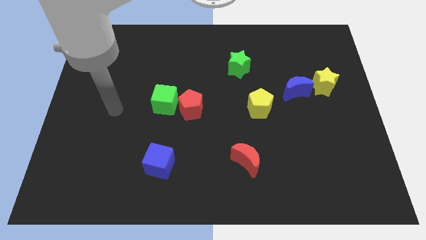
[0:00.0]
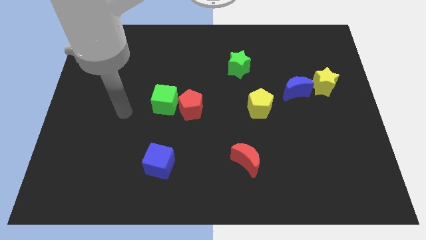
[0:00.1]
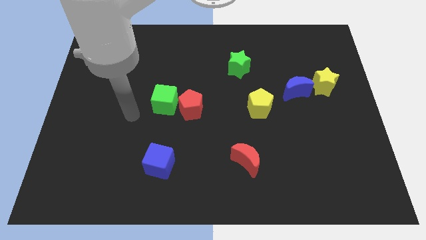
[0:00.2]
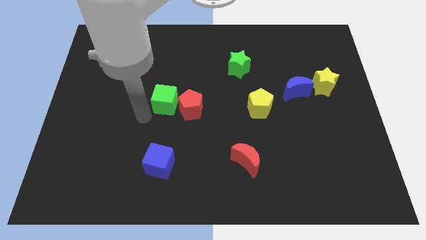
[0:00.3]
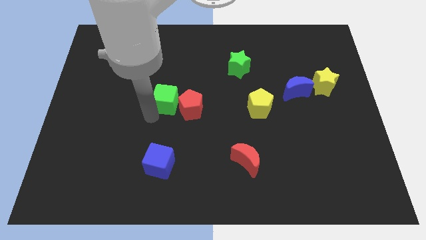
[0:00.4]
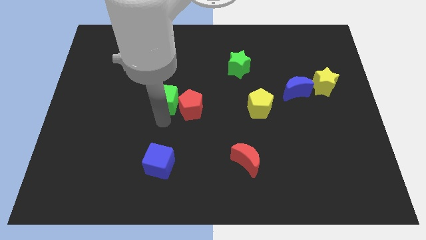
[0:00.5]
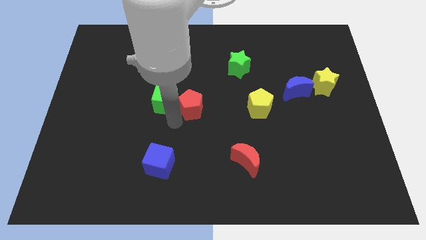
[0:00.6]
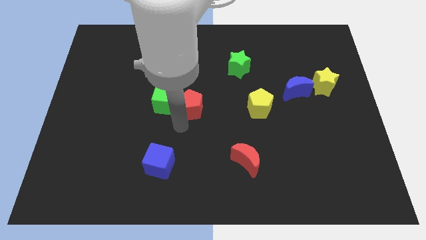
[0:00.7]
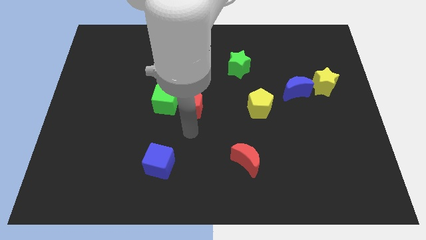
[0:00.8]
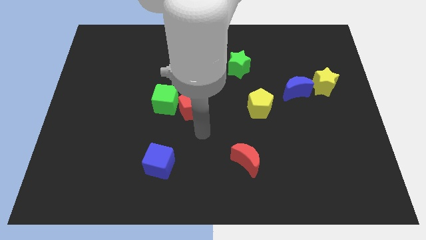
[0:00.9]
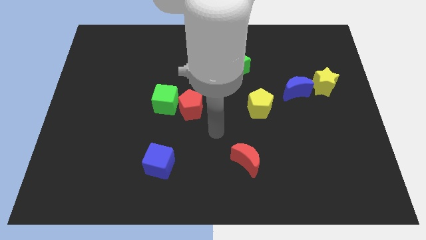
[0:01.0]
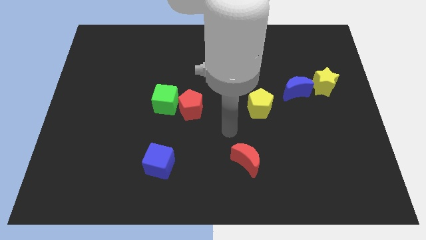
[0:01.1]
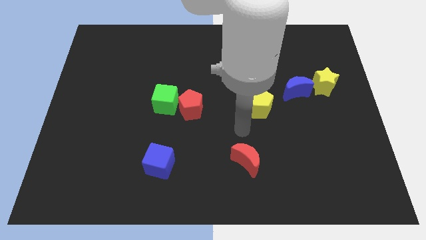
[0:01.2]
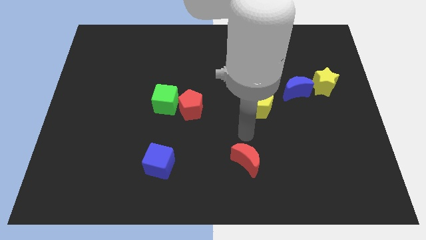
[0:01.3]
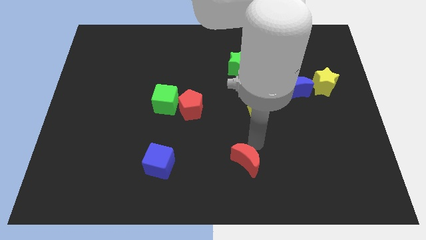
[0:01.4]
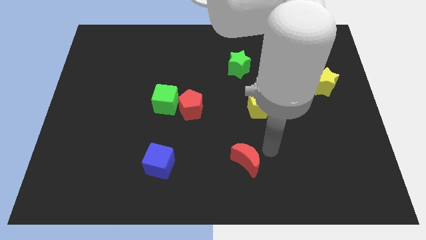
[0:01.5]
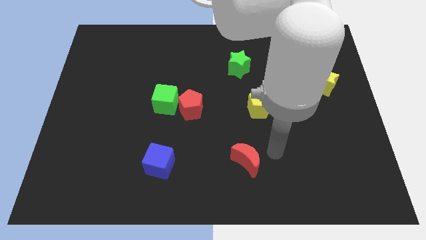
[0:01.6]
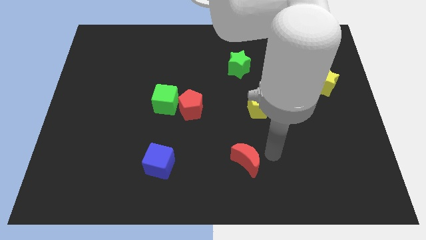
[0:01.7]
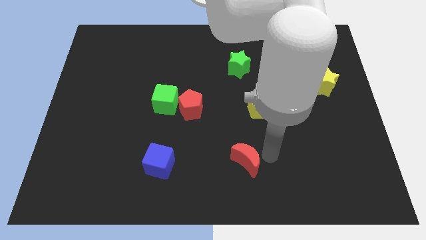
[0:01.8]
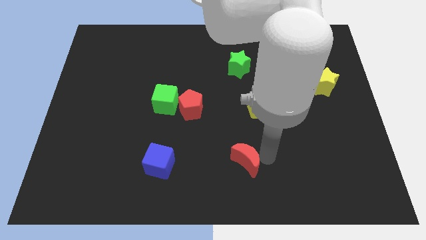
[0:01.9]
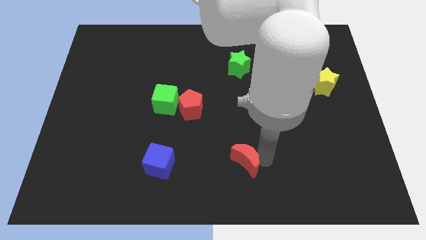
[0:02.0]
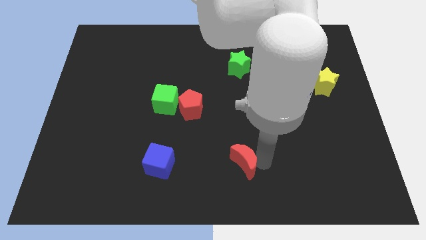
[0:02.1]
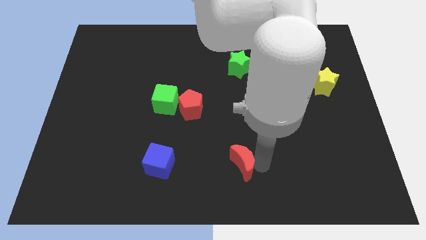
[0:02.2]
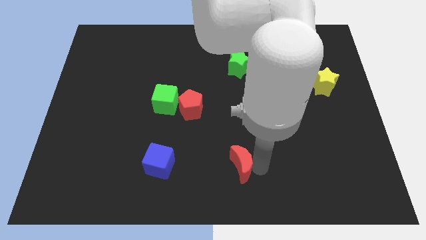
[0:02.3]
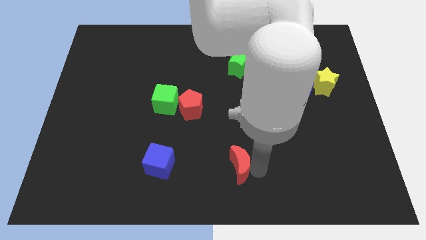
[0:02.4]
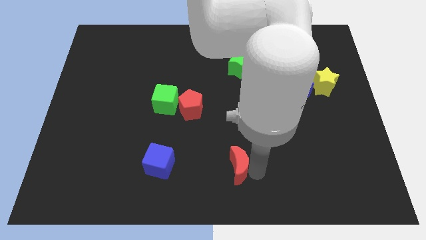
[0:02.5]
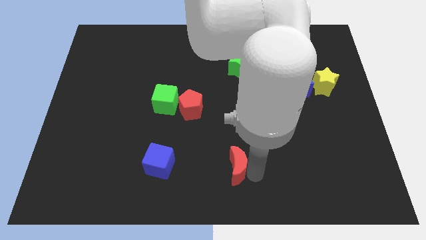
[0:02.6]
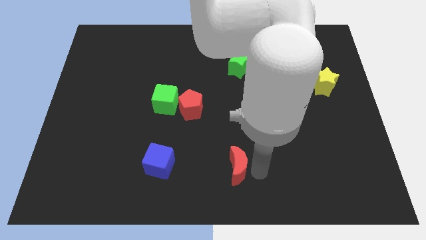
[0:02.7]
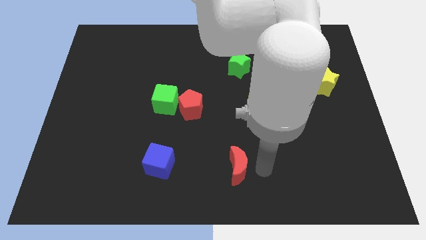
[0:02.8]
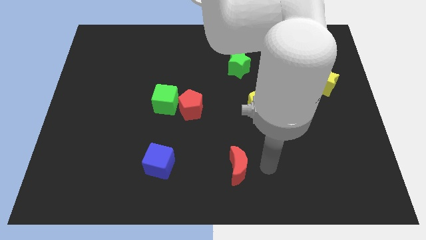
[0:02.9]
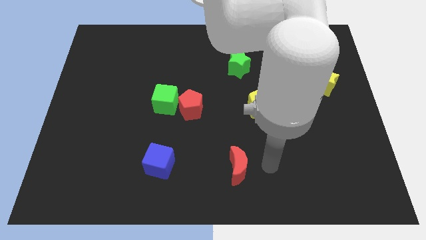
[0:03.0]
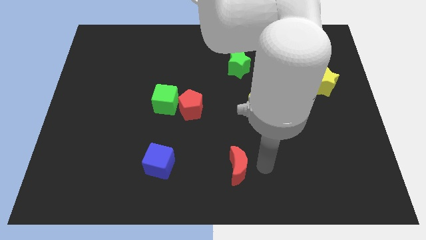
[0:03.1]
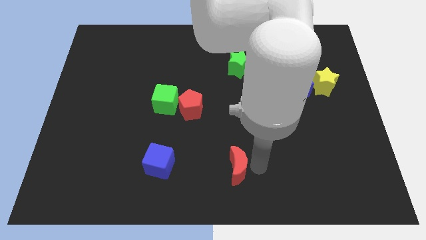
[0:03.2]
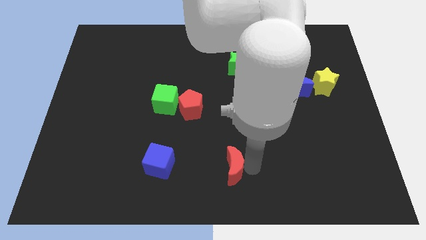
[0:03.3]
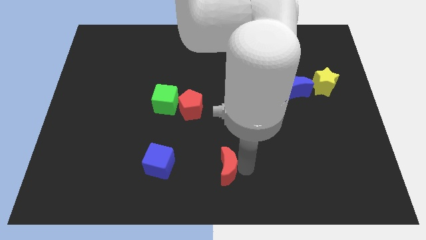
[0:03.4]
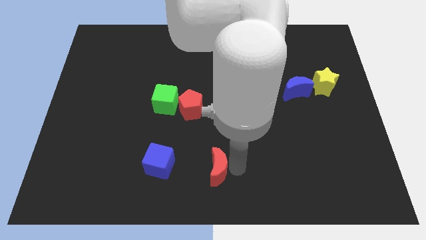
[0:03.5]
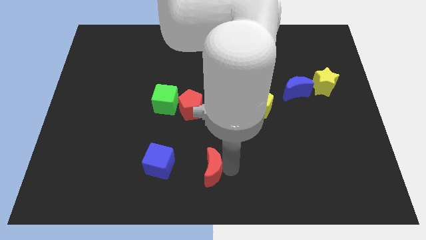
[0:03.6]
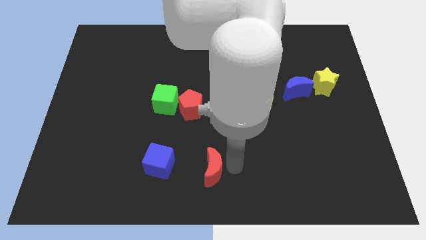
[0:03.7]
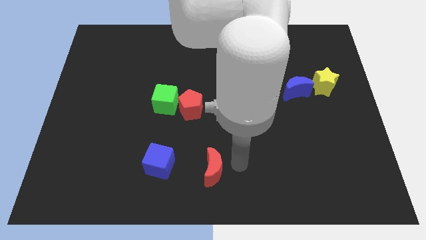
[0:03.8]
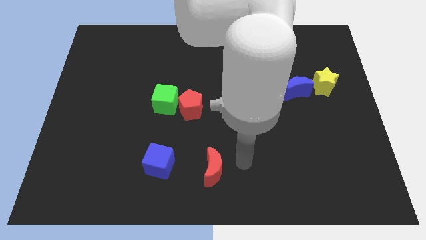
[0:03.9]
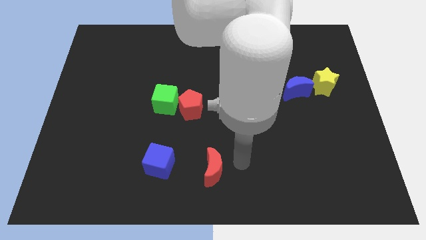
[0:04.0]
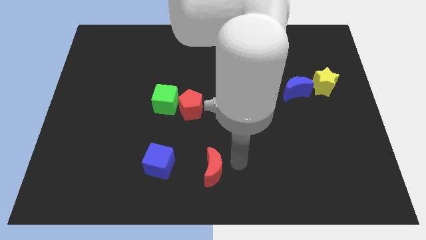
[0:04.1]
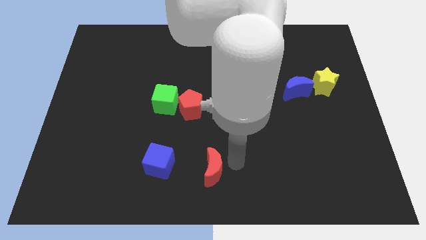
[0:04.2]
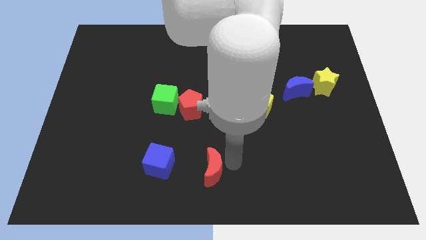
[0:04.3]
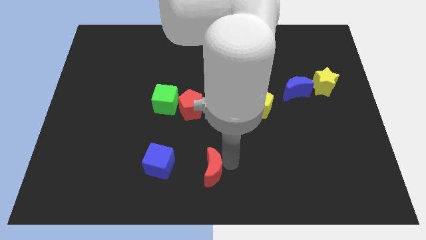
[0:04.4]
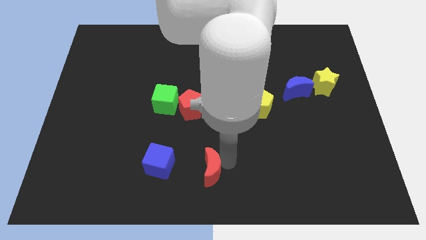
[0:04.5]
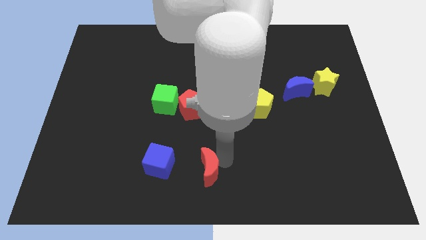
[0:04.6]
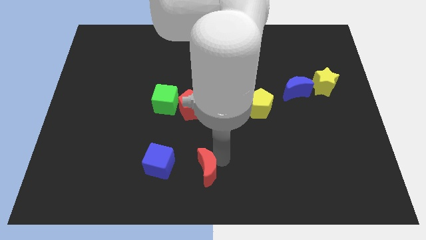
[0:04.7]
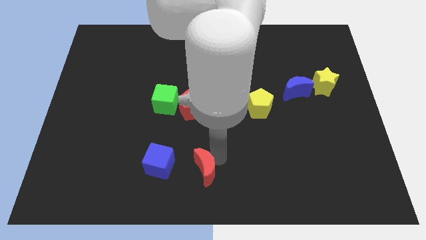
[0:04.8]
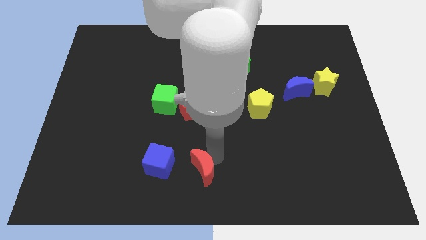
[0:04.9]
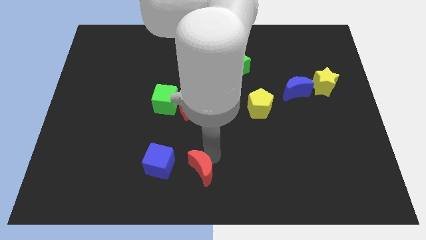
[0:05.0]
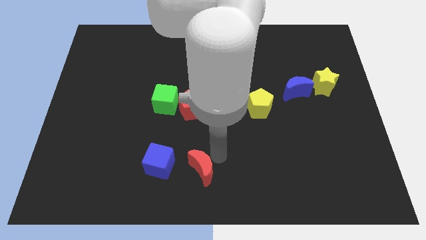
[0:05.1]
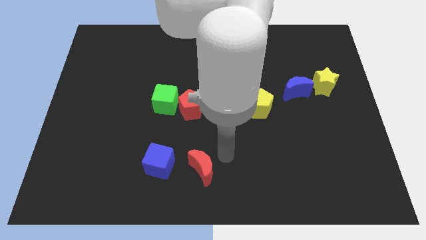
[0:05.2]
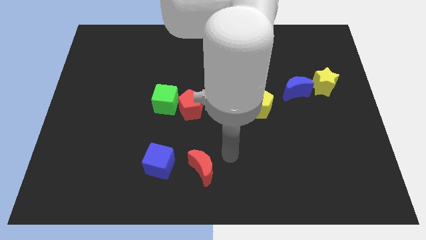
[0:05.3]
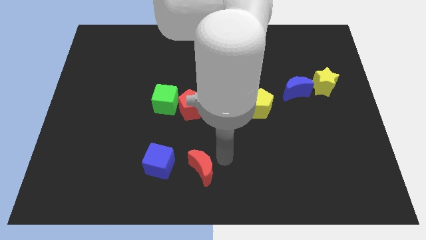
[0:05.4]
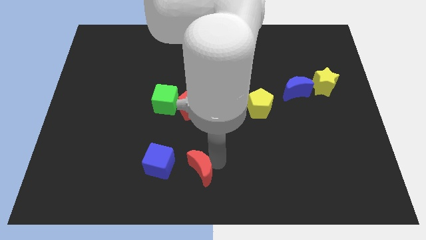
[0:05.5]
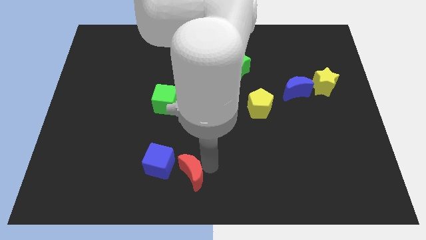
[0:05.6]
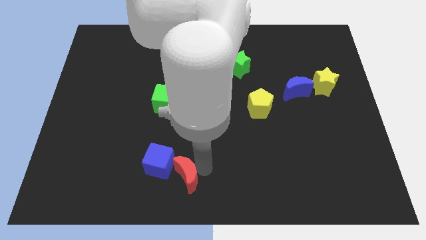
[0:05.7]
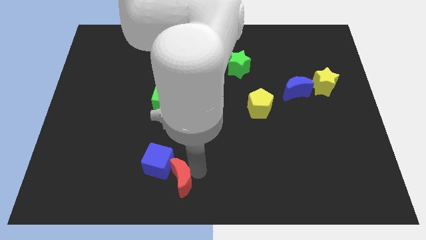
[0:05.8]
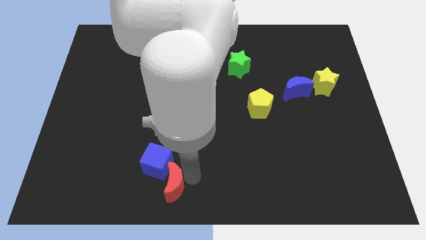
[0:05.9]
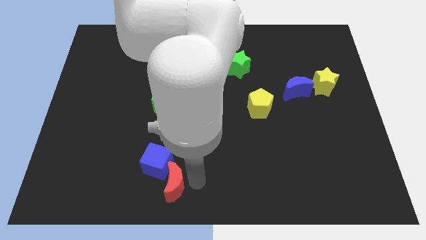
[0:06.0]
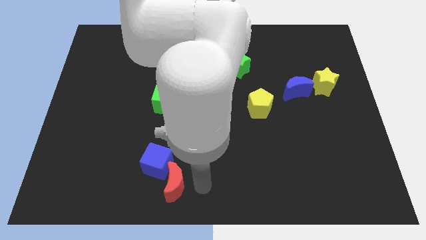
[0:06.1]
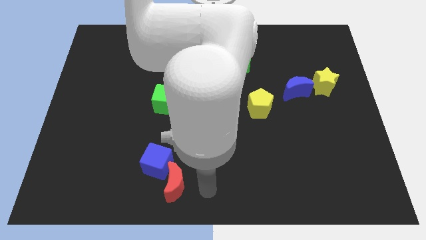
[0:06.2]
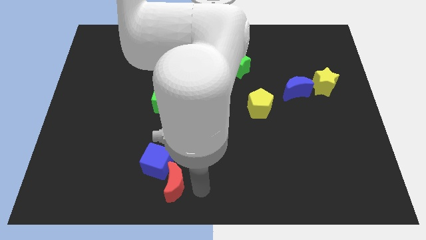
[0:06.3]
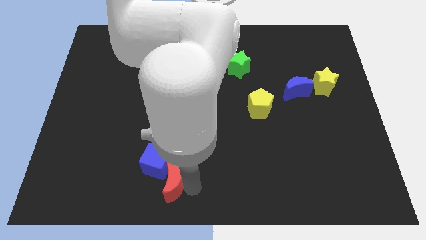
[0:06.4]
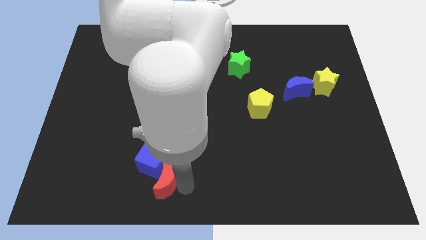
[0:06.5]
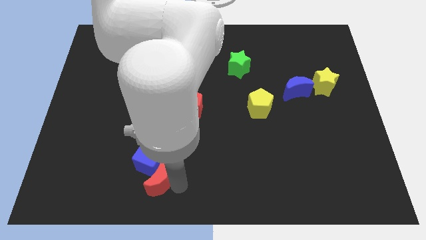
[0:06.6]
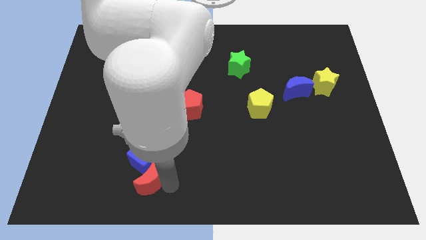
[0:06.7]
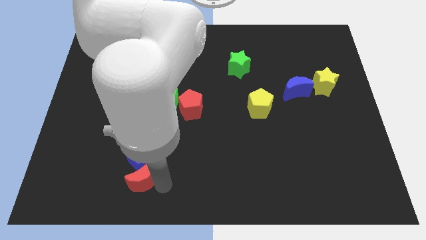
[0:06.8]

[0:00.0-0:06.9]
move the red moon left

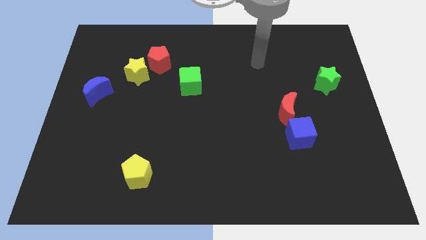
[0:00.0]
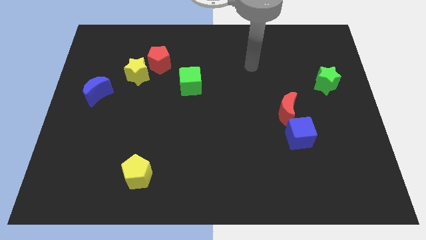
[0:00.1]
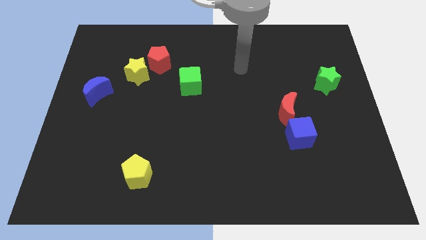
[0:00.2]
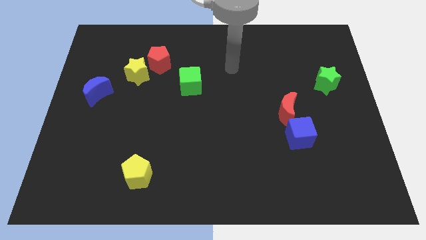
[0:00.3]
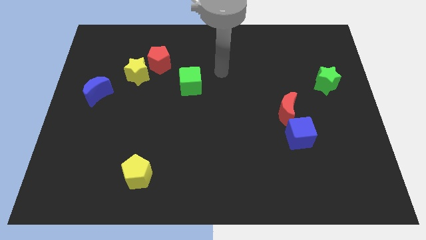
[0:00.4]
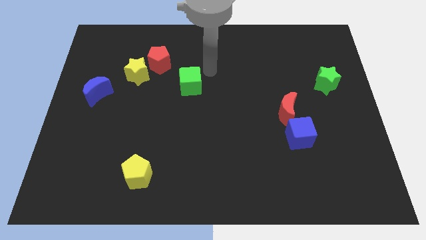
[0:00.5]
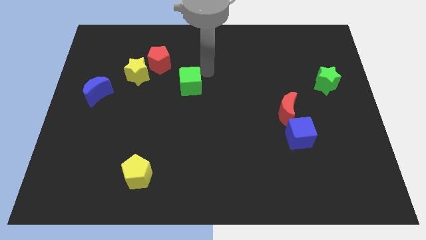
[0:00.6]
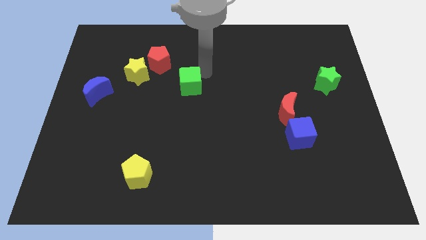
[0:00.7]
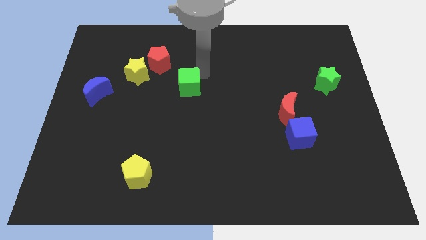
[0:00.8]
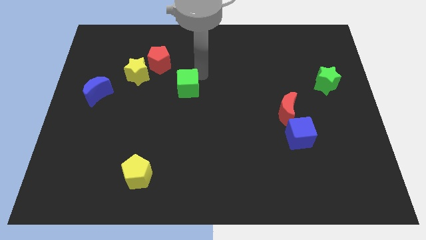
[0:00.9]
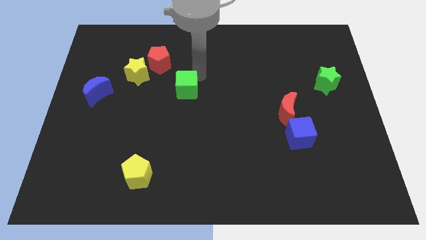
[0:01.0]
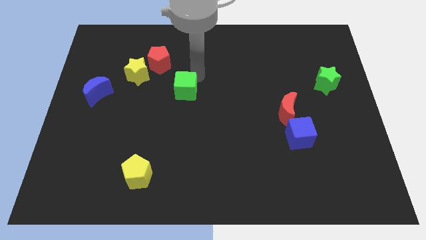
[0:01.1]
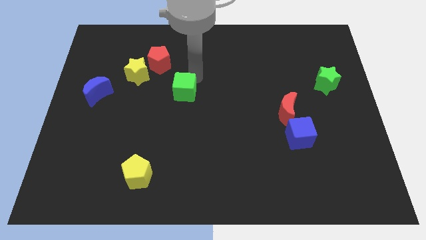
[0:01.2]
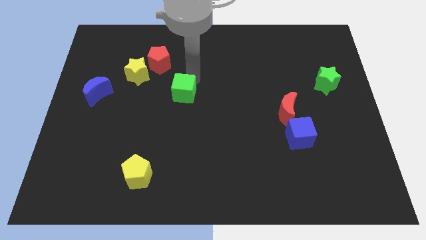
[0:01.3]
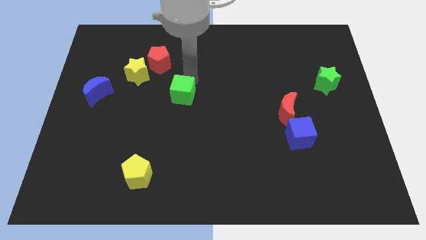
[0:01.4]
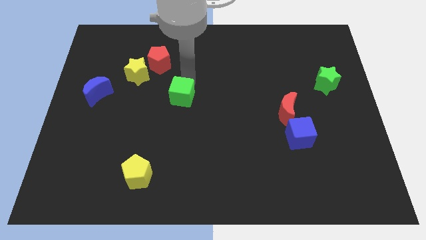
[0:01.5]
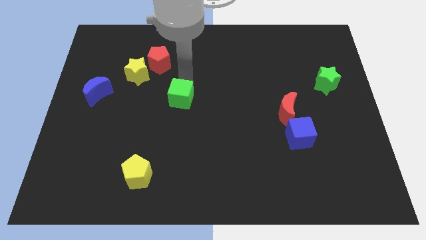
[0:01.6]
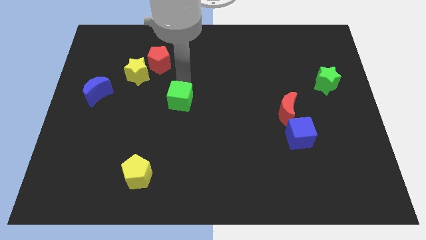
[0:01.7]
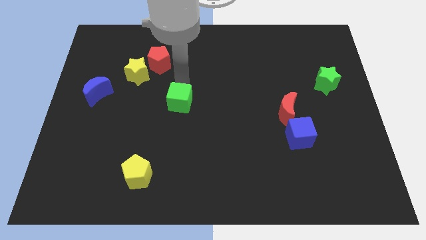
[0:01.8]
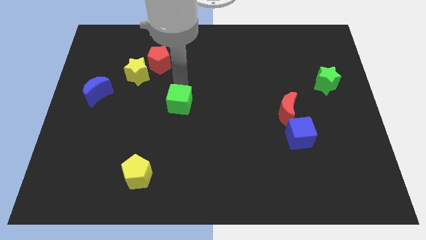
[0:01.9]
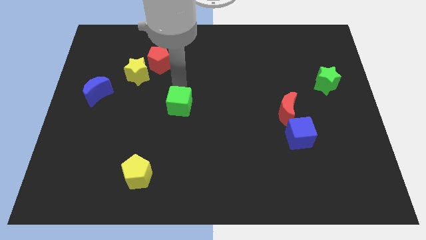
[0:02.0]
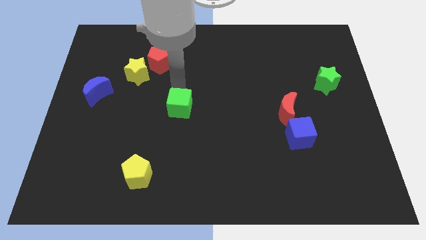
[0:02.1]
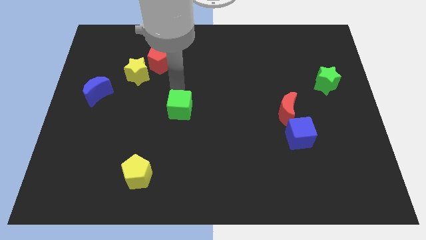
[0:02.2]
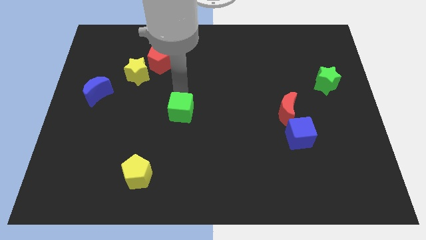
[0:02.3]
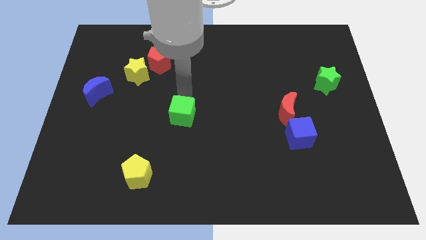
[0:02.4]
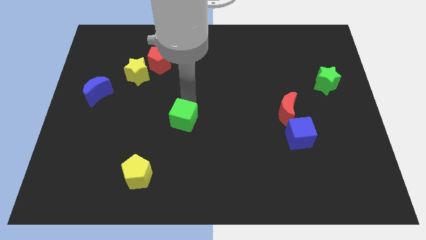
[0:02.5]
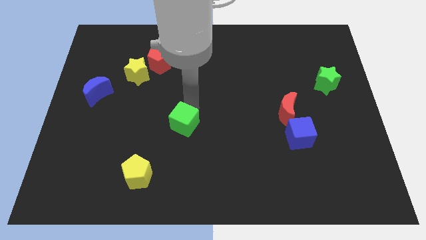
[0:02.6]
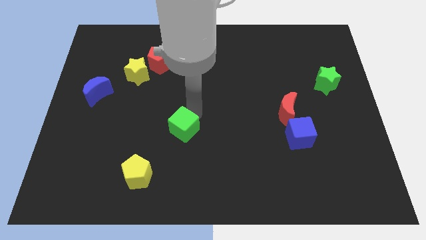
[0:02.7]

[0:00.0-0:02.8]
slightly push the green cube downwards and left diagonally
